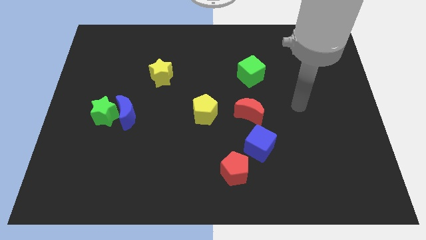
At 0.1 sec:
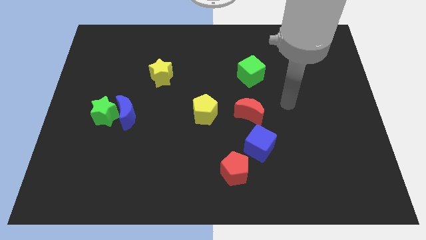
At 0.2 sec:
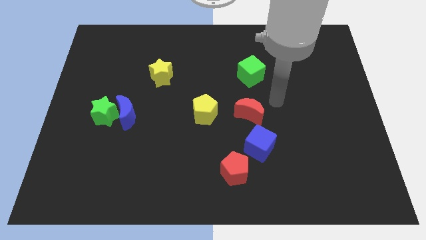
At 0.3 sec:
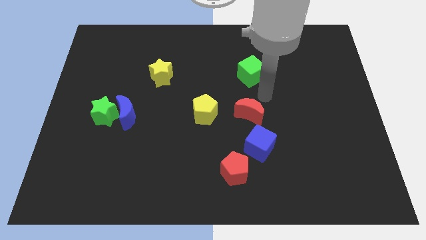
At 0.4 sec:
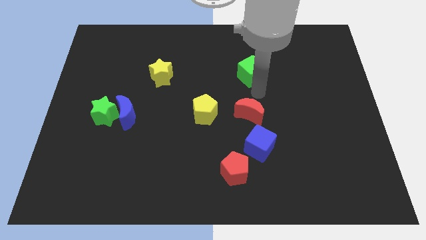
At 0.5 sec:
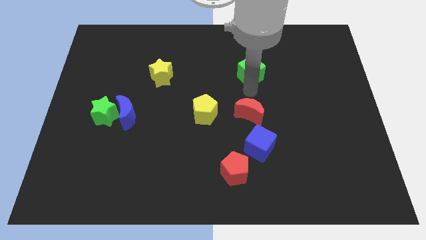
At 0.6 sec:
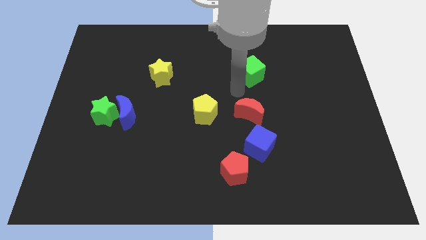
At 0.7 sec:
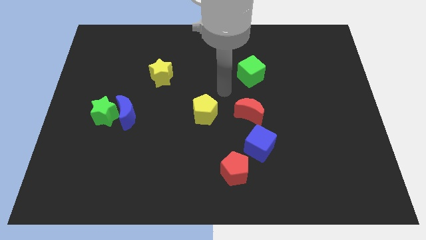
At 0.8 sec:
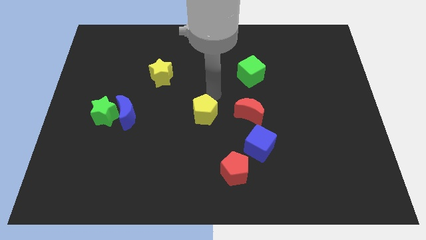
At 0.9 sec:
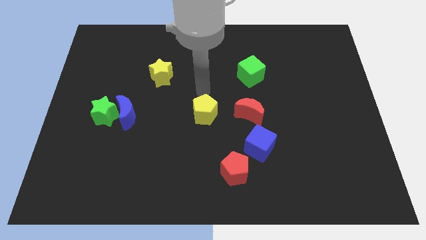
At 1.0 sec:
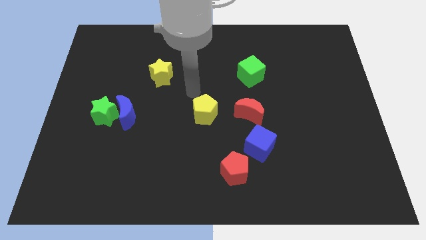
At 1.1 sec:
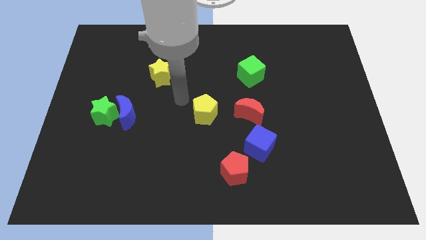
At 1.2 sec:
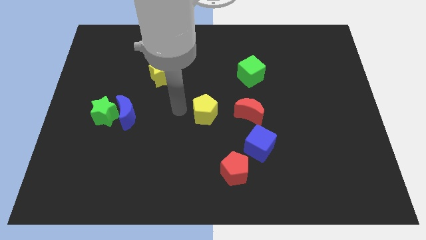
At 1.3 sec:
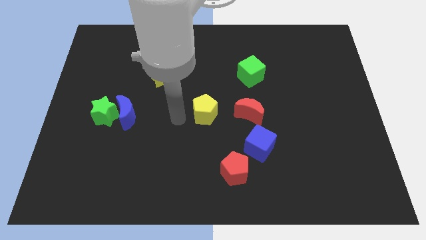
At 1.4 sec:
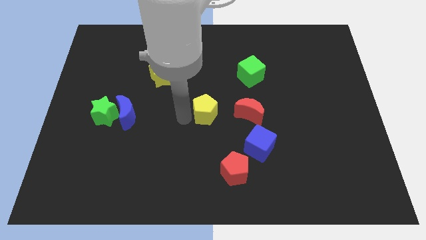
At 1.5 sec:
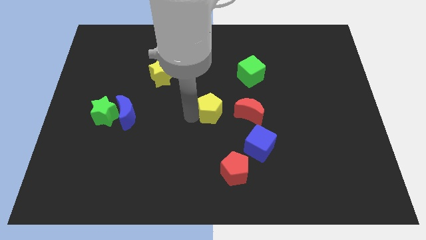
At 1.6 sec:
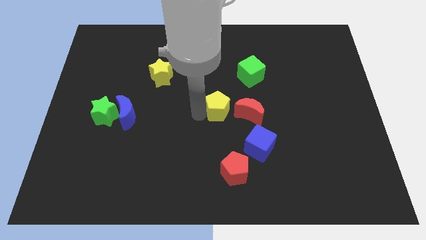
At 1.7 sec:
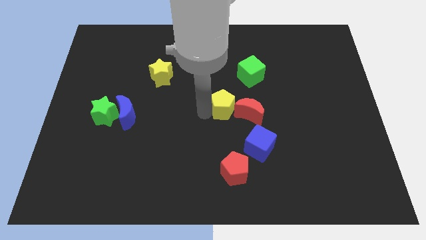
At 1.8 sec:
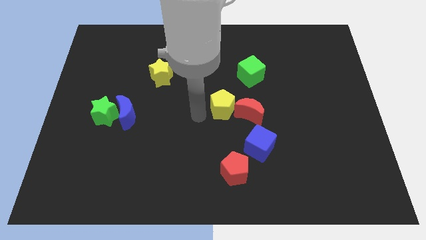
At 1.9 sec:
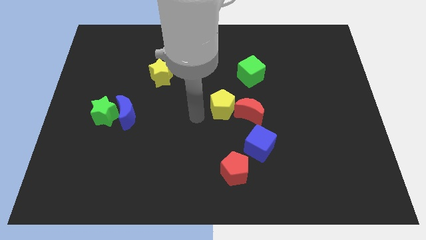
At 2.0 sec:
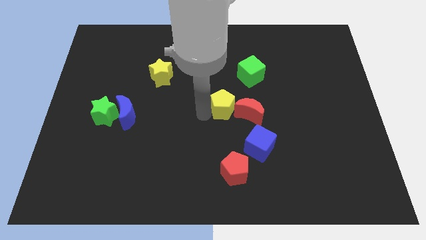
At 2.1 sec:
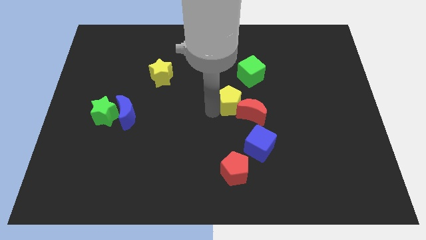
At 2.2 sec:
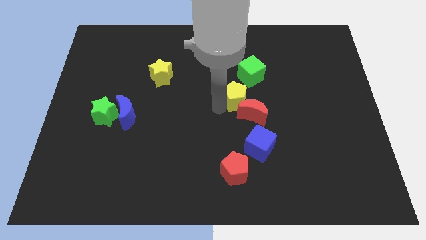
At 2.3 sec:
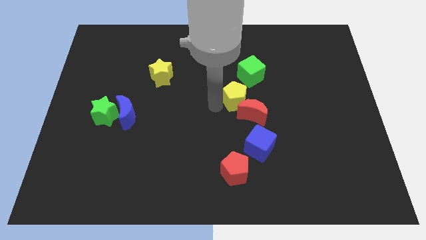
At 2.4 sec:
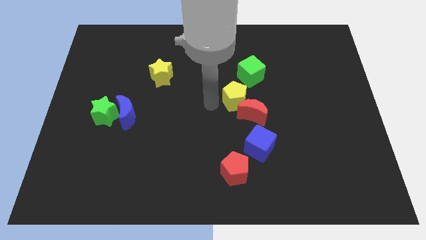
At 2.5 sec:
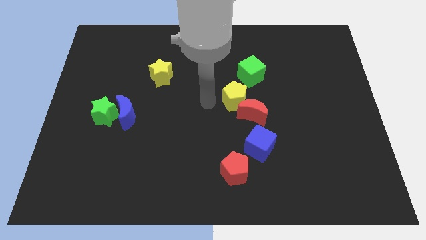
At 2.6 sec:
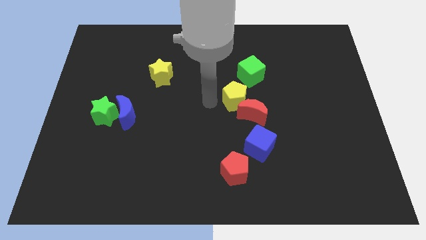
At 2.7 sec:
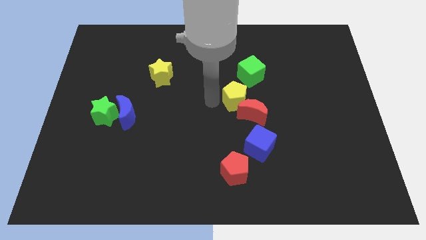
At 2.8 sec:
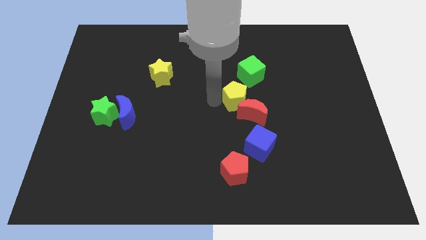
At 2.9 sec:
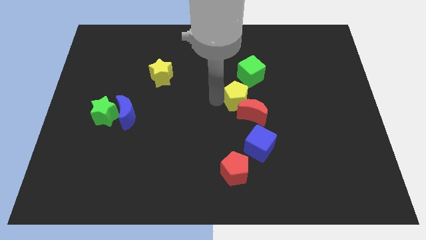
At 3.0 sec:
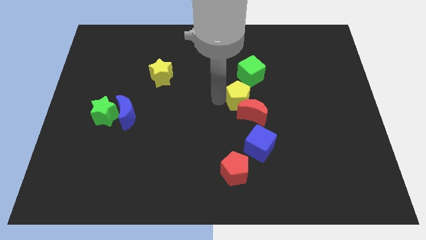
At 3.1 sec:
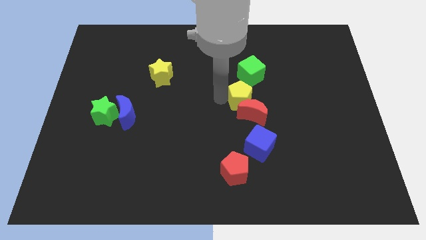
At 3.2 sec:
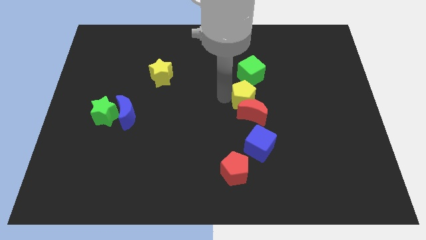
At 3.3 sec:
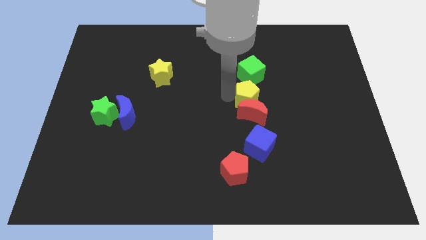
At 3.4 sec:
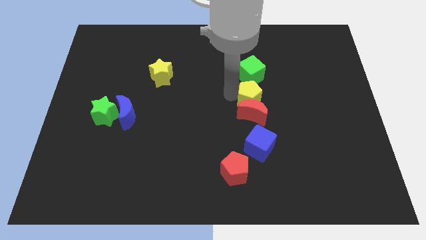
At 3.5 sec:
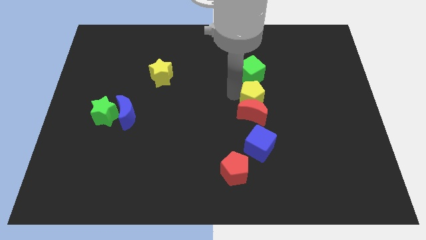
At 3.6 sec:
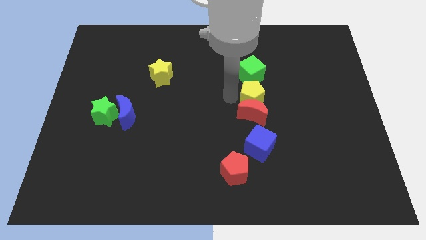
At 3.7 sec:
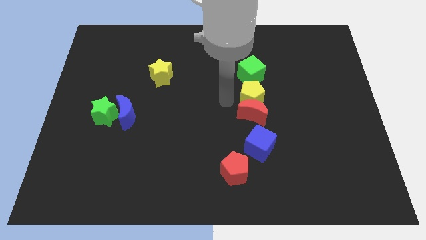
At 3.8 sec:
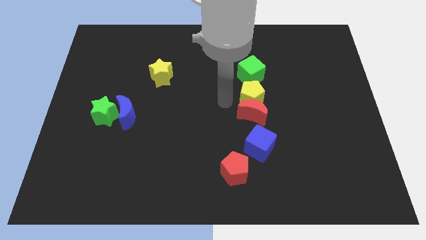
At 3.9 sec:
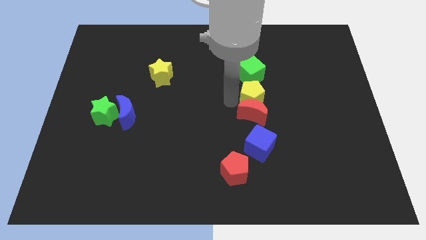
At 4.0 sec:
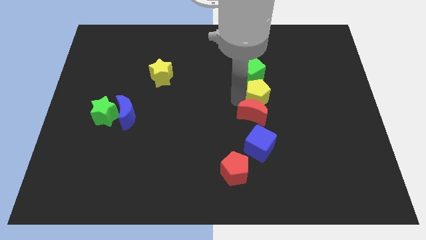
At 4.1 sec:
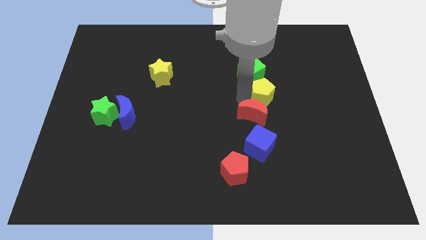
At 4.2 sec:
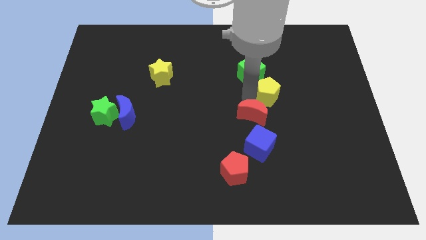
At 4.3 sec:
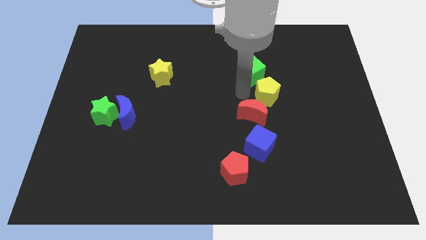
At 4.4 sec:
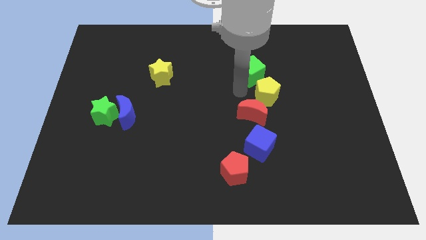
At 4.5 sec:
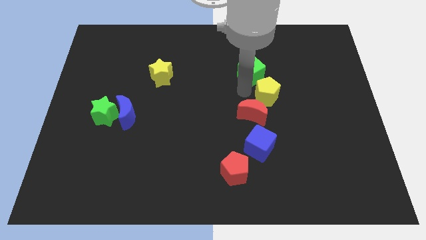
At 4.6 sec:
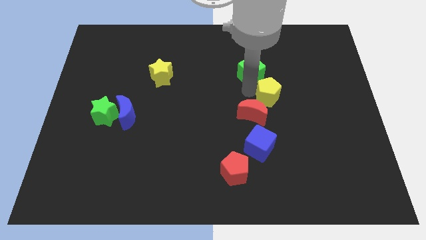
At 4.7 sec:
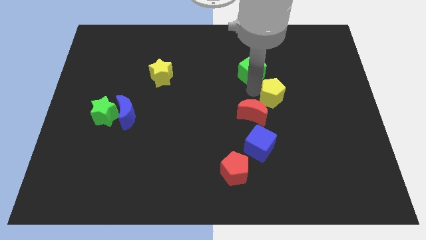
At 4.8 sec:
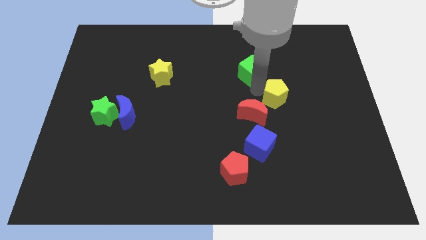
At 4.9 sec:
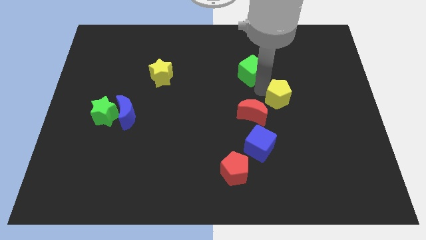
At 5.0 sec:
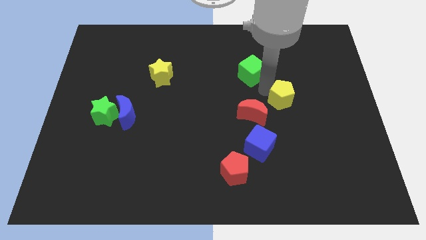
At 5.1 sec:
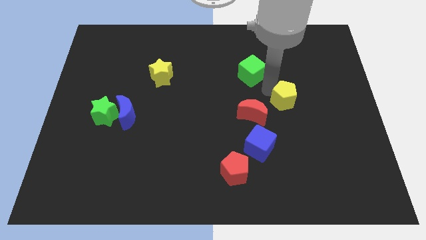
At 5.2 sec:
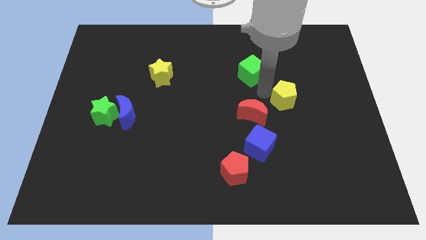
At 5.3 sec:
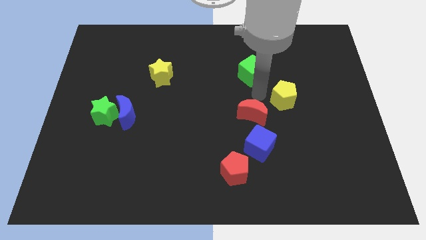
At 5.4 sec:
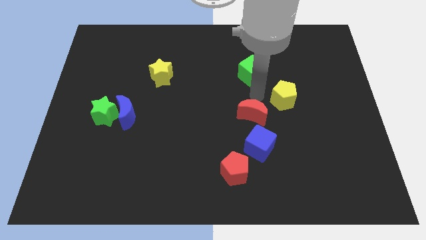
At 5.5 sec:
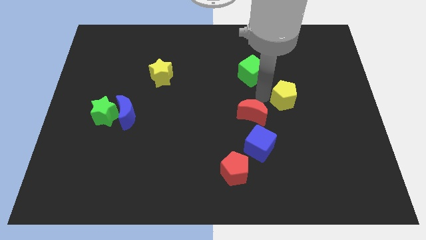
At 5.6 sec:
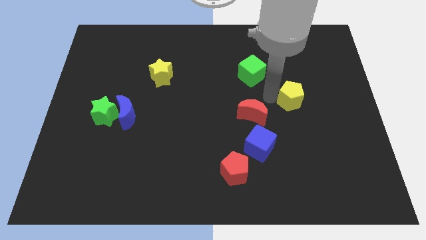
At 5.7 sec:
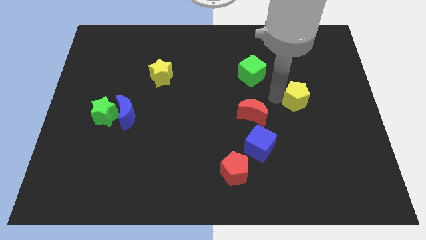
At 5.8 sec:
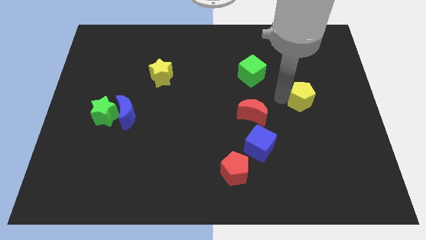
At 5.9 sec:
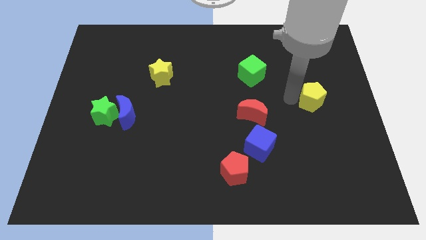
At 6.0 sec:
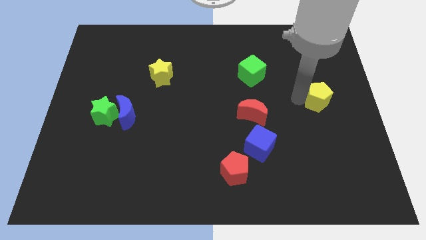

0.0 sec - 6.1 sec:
move the yellow pentagon to the right side
